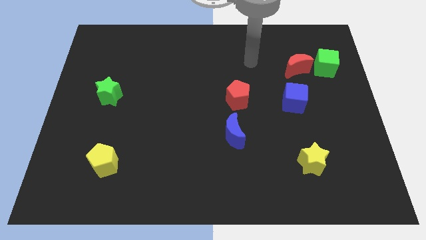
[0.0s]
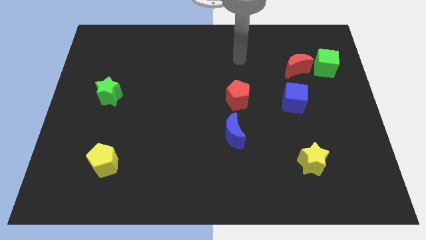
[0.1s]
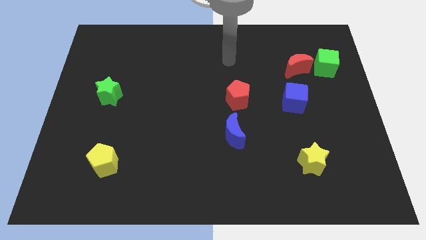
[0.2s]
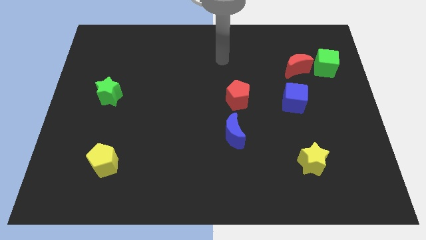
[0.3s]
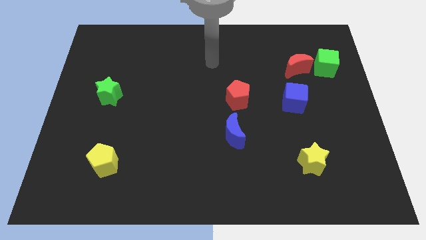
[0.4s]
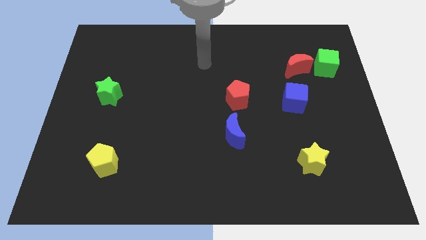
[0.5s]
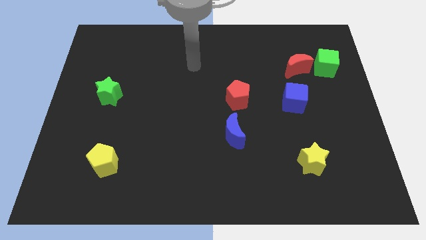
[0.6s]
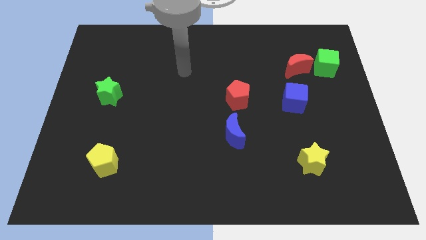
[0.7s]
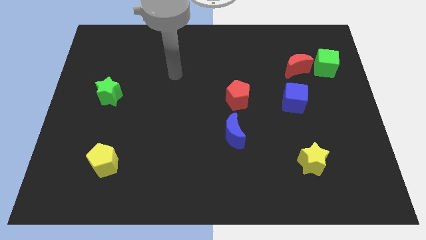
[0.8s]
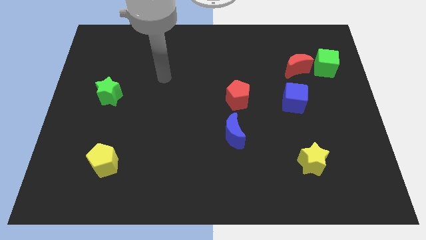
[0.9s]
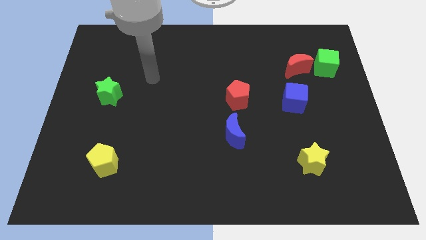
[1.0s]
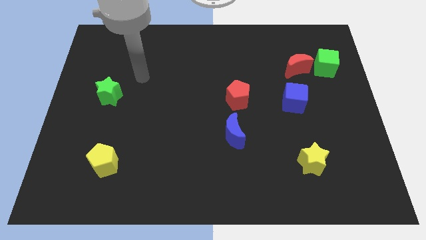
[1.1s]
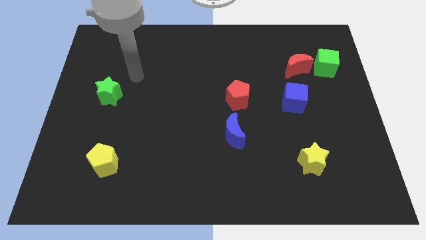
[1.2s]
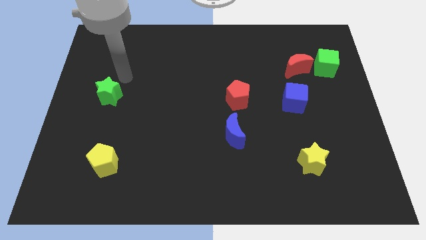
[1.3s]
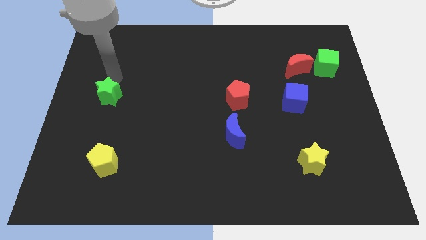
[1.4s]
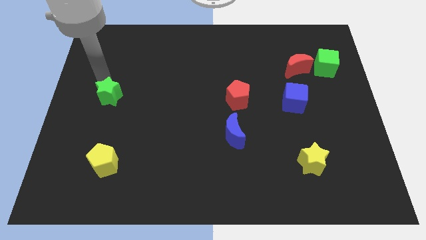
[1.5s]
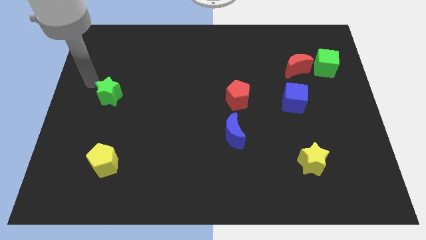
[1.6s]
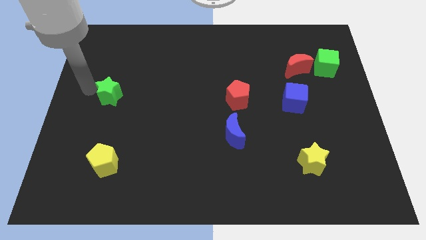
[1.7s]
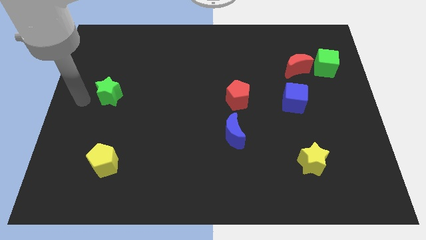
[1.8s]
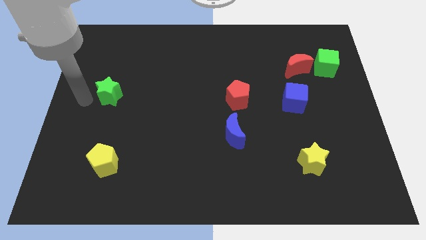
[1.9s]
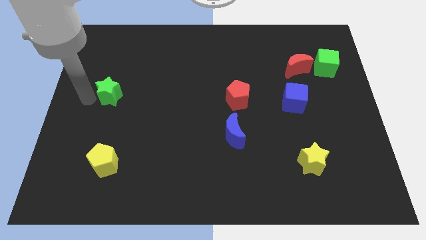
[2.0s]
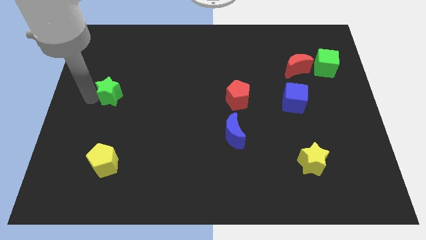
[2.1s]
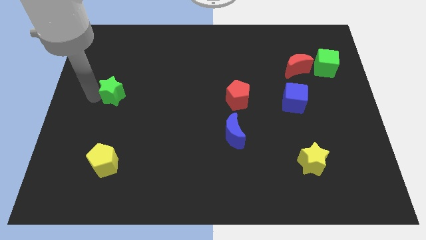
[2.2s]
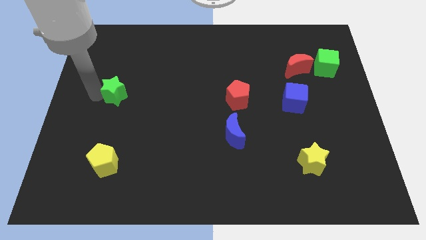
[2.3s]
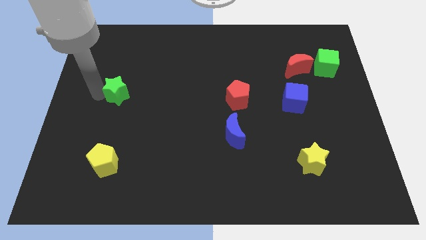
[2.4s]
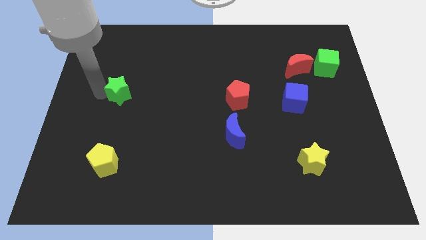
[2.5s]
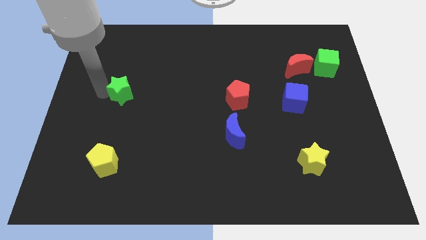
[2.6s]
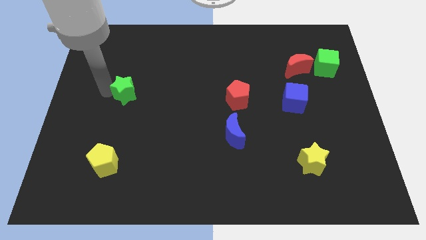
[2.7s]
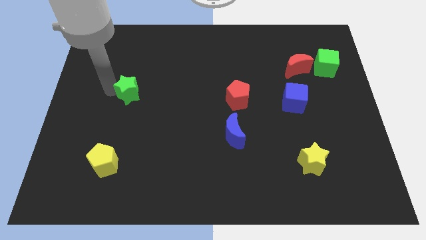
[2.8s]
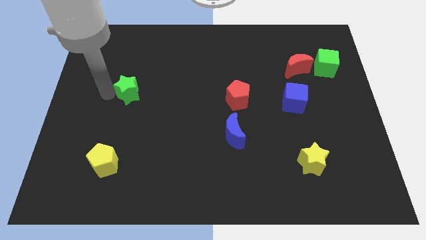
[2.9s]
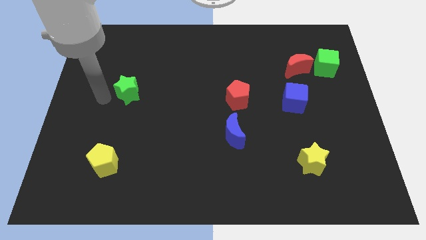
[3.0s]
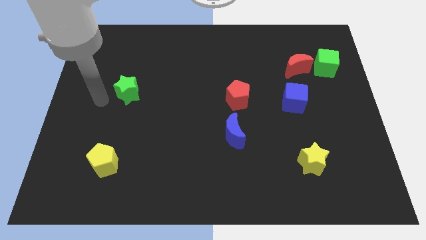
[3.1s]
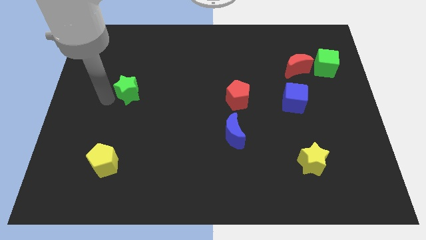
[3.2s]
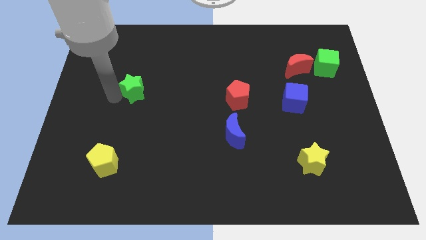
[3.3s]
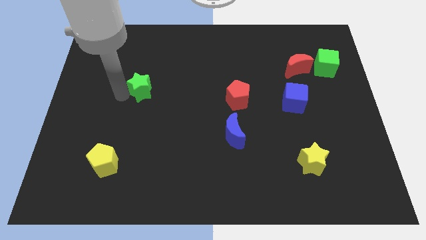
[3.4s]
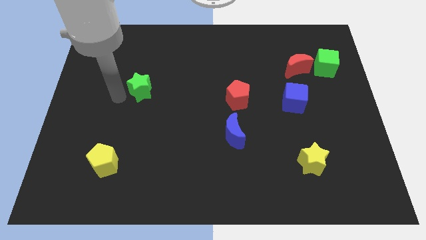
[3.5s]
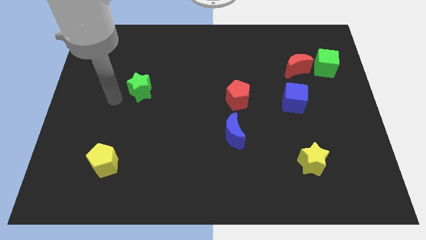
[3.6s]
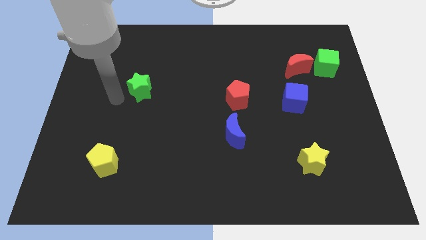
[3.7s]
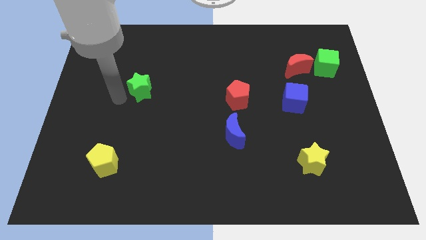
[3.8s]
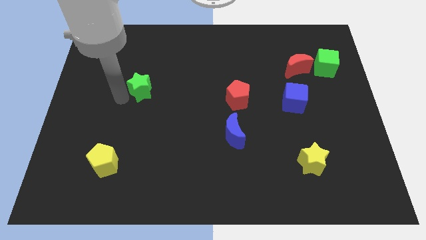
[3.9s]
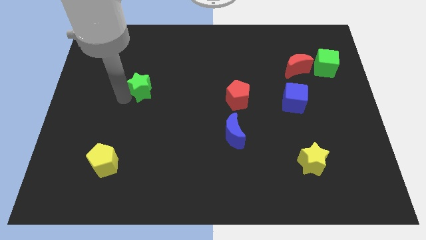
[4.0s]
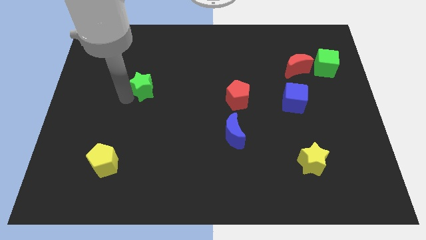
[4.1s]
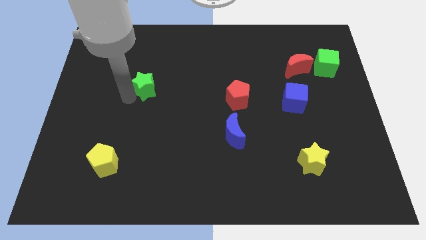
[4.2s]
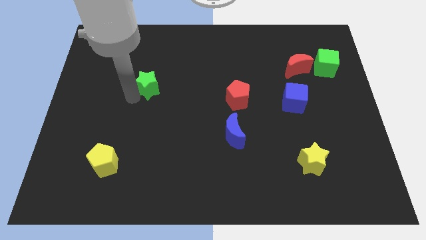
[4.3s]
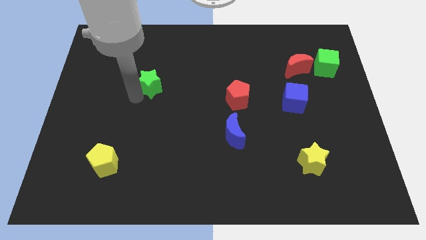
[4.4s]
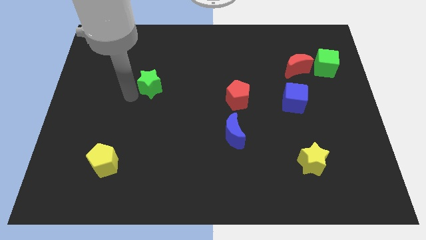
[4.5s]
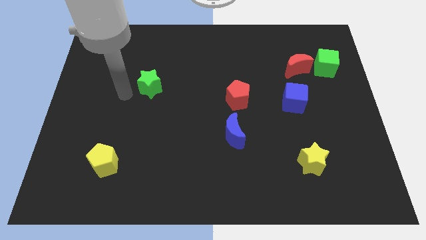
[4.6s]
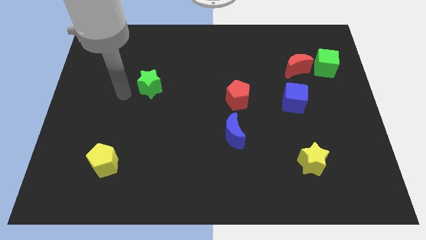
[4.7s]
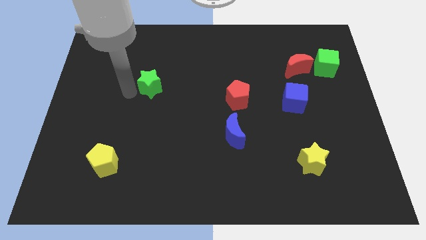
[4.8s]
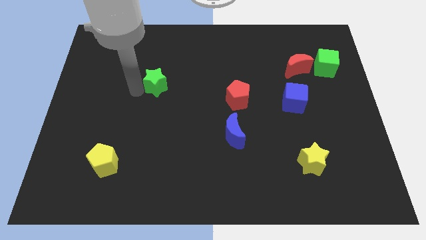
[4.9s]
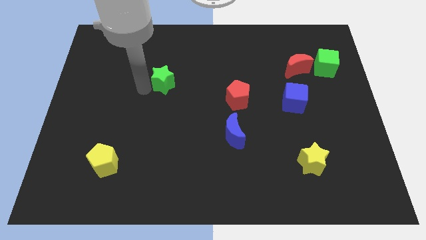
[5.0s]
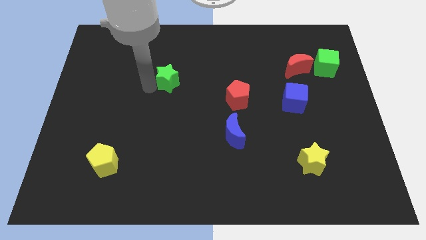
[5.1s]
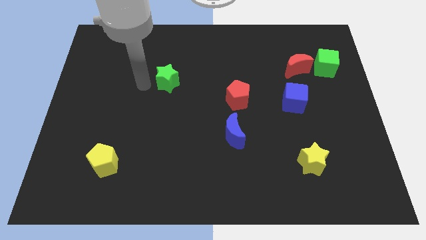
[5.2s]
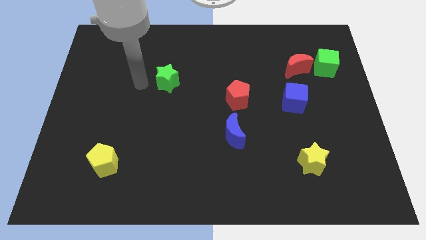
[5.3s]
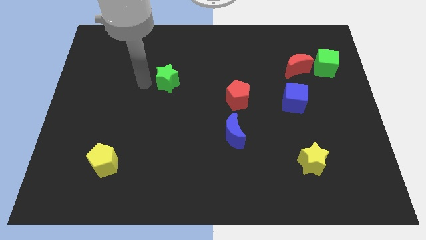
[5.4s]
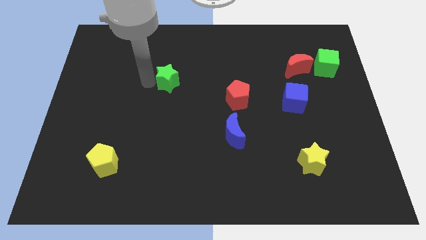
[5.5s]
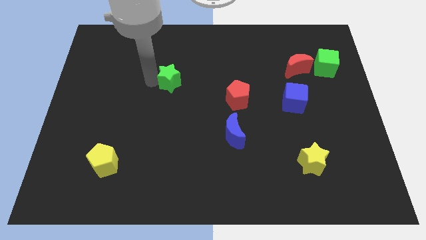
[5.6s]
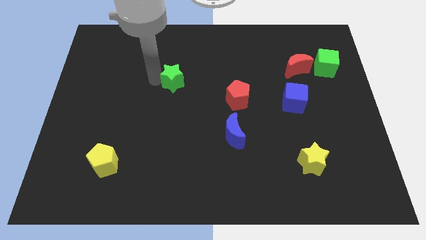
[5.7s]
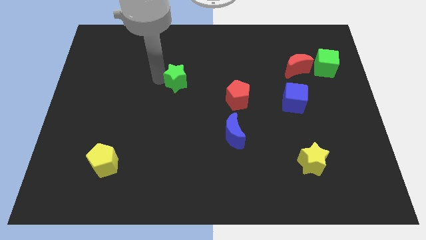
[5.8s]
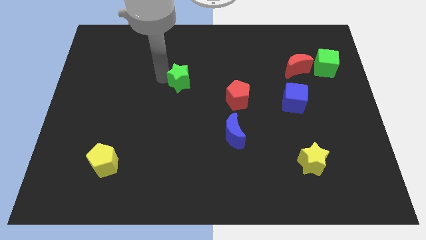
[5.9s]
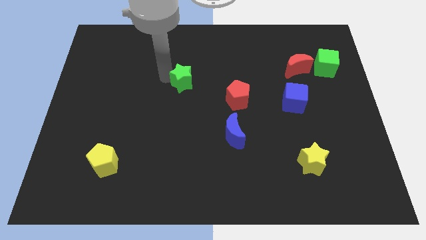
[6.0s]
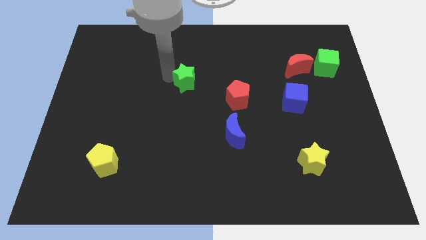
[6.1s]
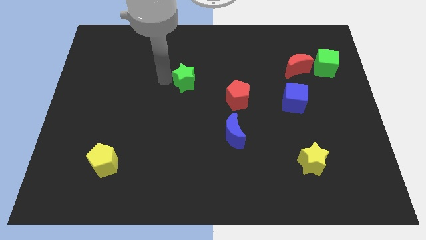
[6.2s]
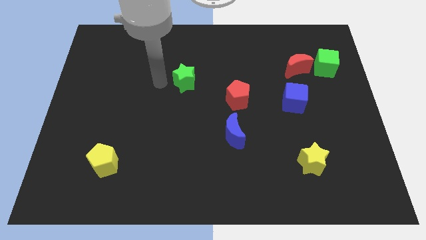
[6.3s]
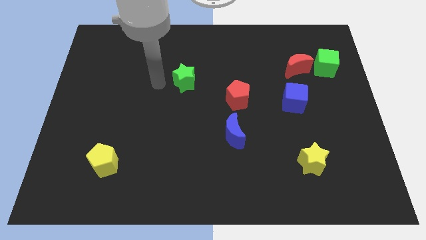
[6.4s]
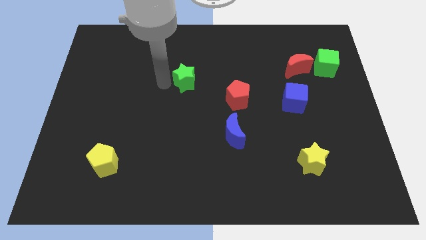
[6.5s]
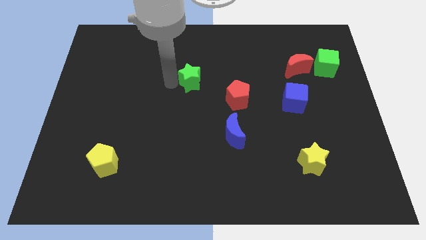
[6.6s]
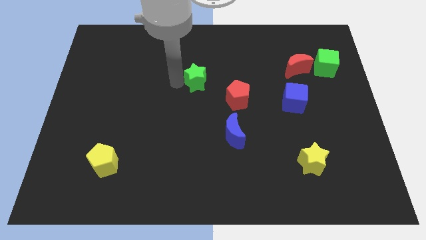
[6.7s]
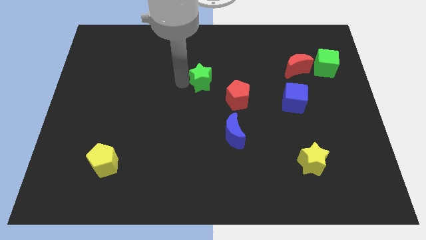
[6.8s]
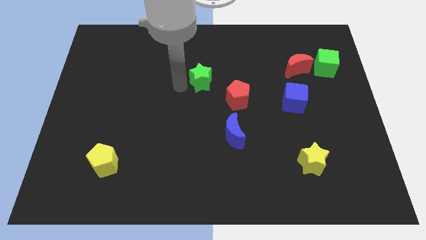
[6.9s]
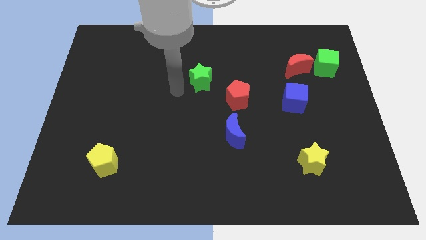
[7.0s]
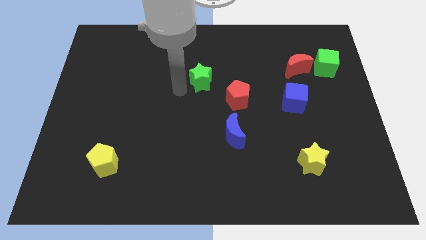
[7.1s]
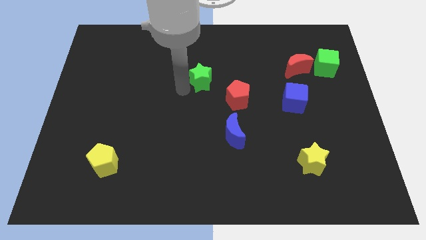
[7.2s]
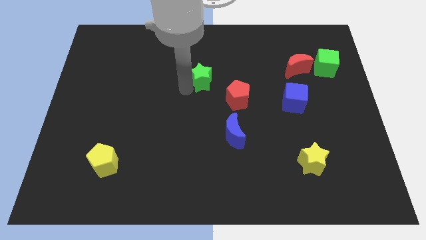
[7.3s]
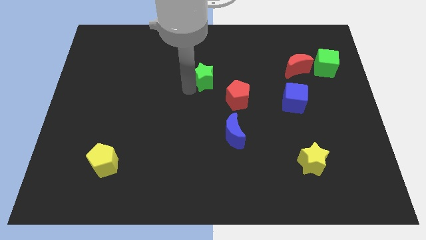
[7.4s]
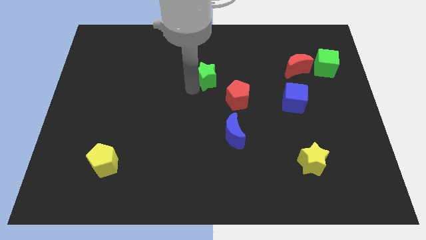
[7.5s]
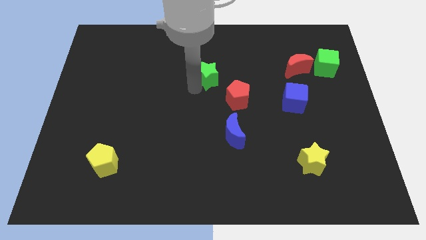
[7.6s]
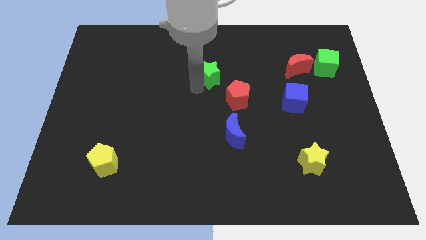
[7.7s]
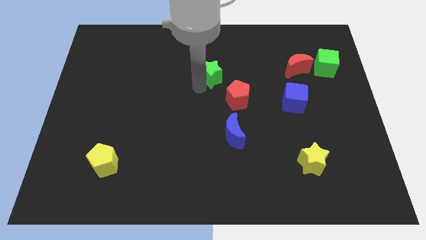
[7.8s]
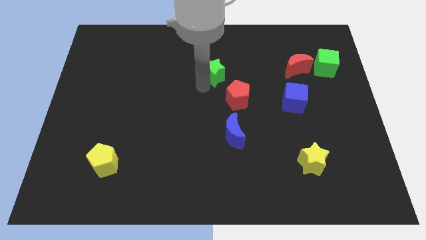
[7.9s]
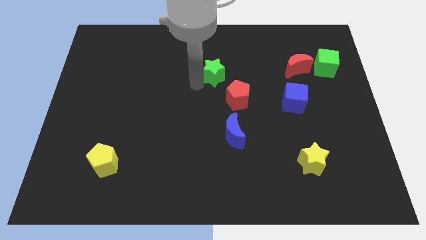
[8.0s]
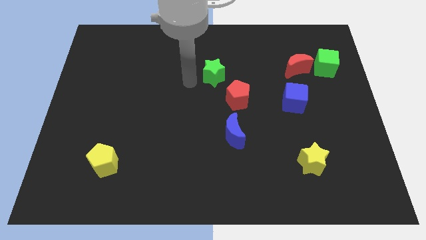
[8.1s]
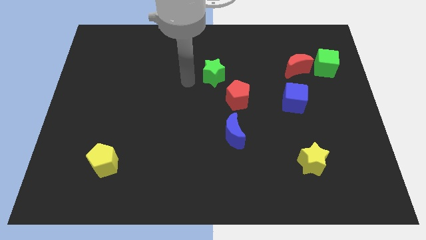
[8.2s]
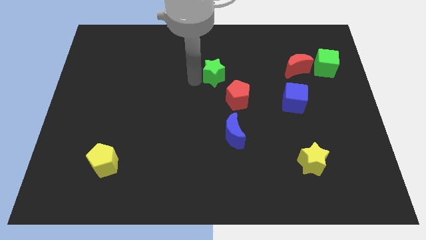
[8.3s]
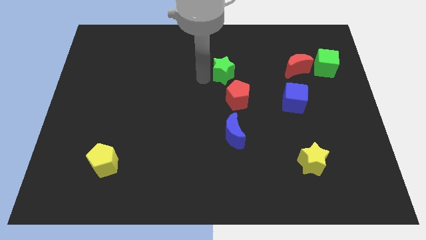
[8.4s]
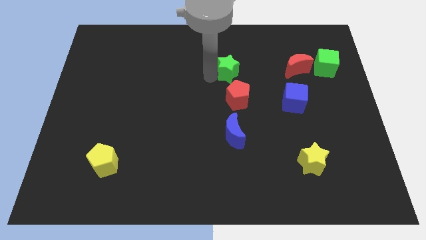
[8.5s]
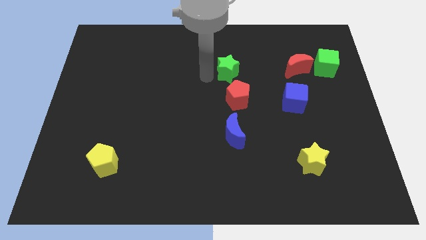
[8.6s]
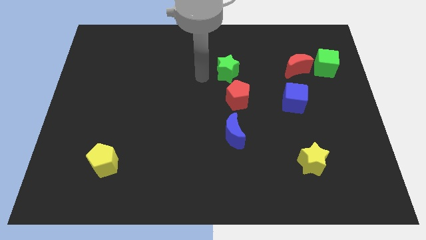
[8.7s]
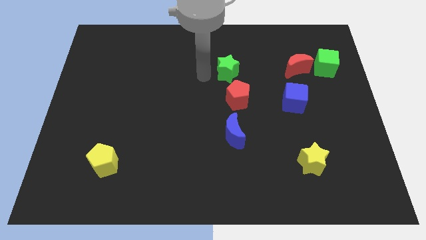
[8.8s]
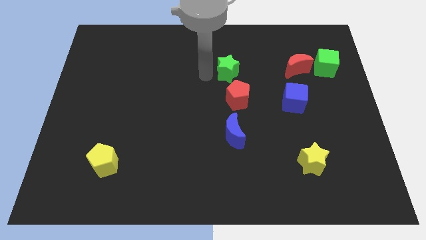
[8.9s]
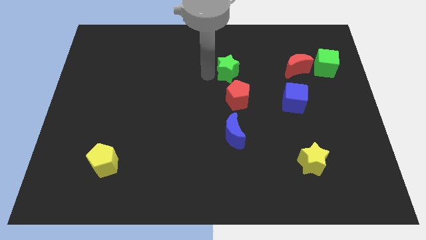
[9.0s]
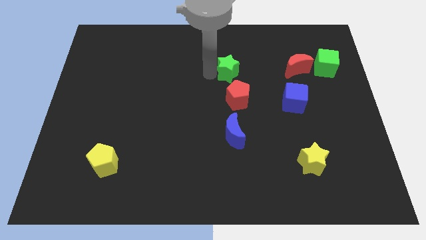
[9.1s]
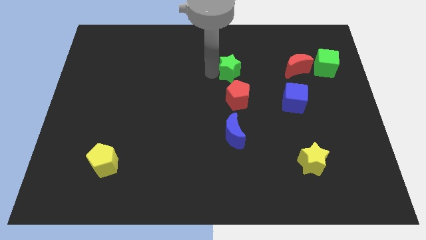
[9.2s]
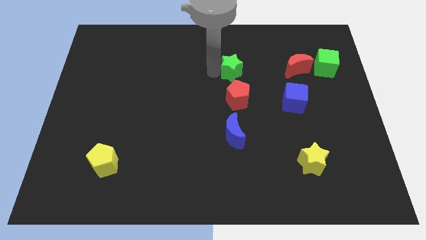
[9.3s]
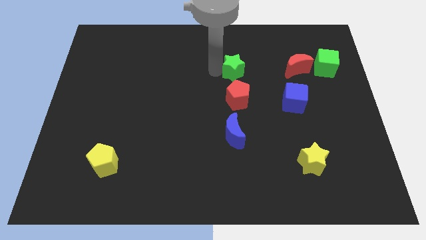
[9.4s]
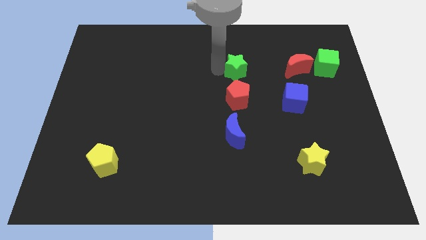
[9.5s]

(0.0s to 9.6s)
push the green star just left of the red moon
